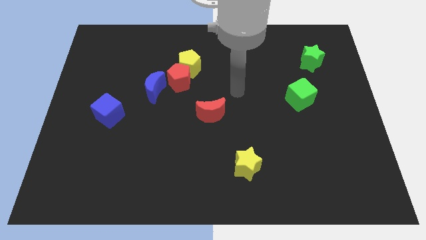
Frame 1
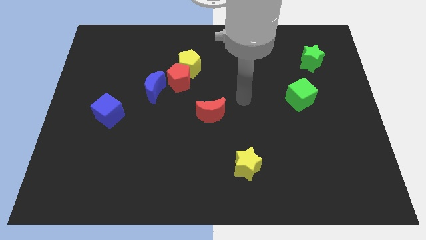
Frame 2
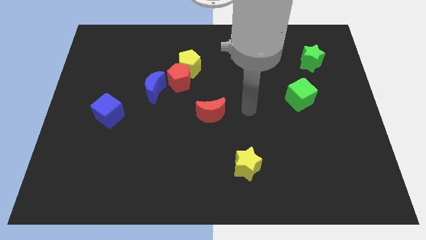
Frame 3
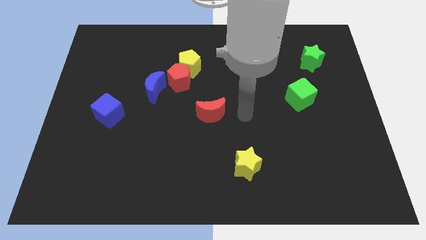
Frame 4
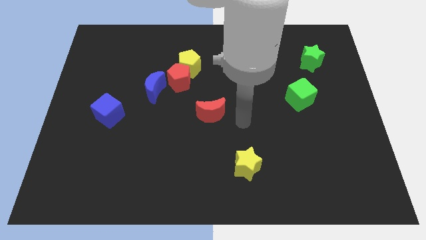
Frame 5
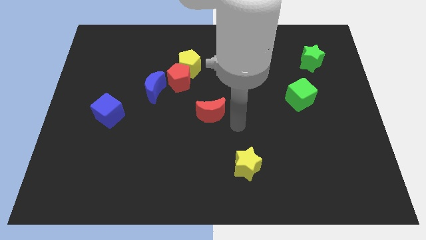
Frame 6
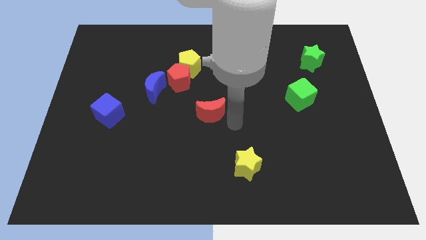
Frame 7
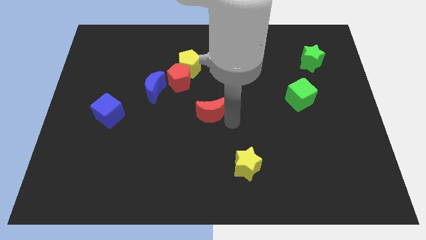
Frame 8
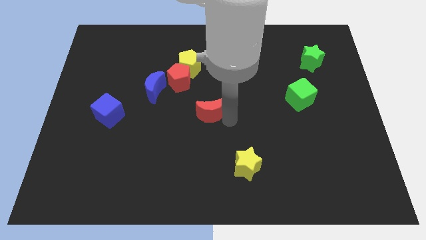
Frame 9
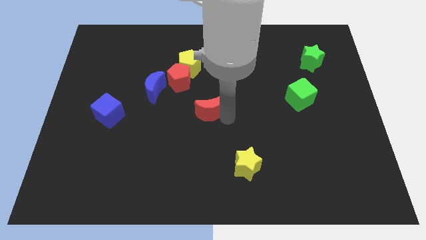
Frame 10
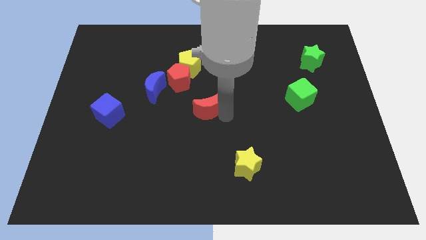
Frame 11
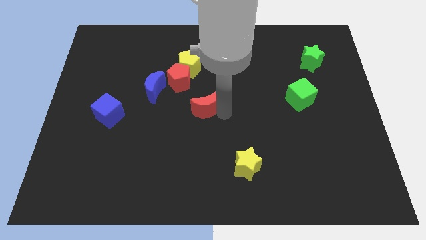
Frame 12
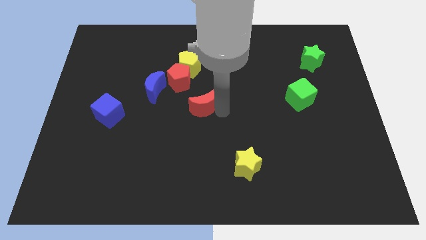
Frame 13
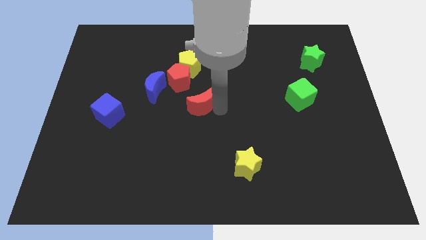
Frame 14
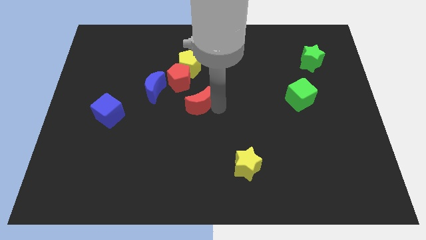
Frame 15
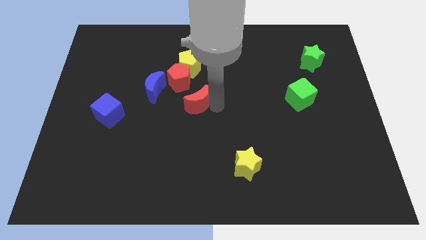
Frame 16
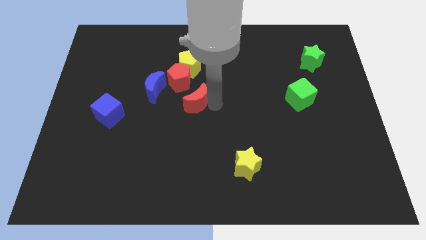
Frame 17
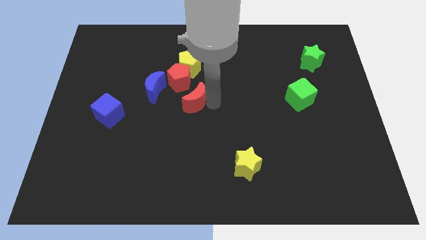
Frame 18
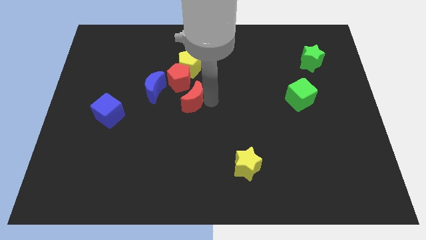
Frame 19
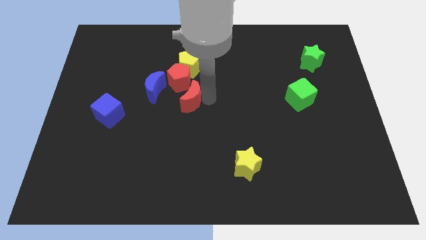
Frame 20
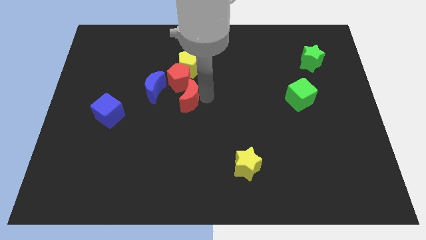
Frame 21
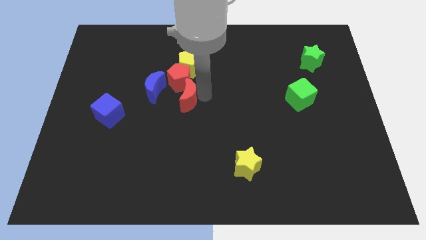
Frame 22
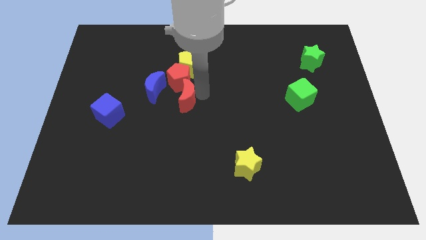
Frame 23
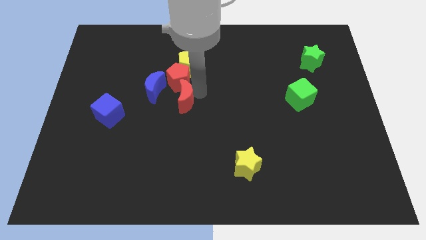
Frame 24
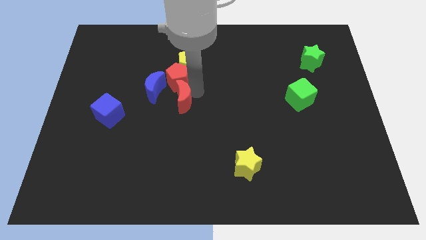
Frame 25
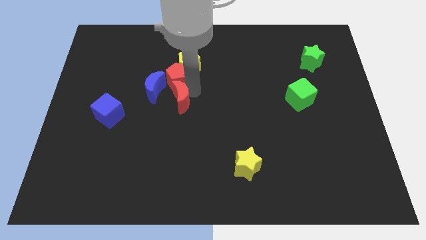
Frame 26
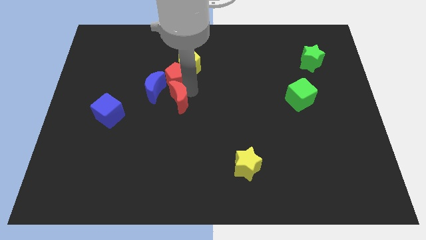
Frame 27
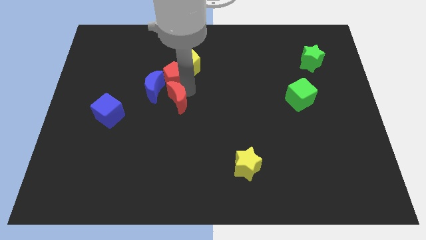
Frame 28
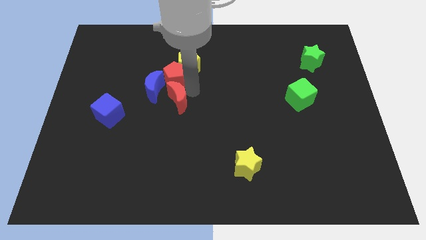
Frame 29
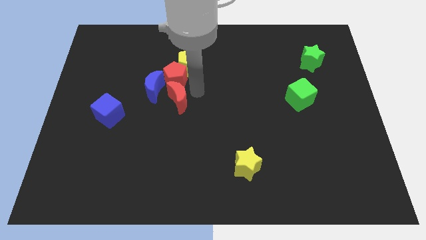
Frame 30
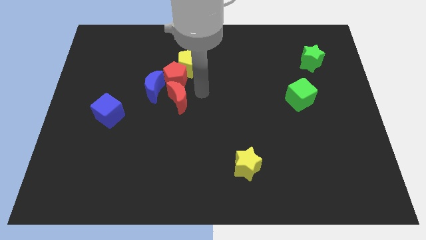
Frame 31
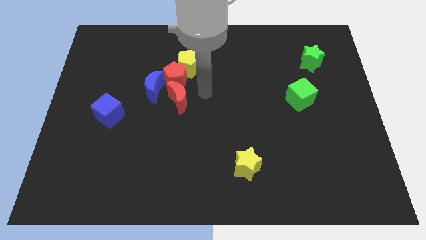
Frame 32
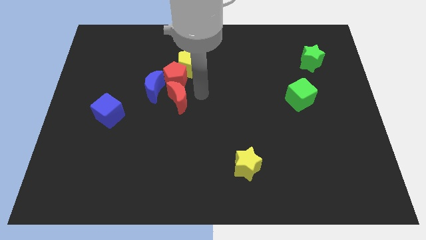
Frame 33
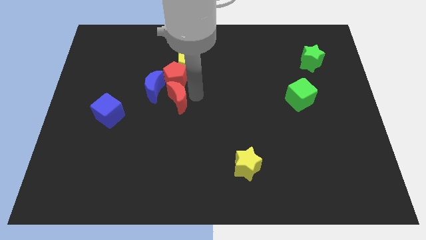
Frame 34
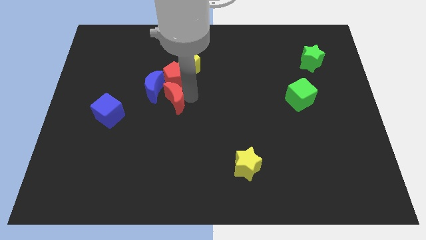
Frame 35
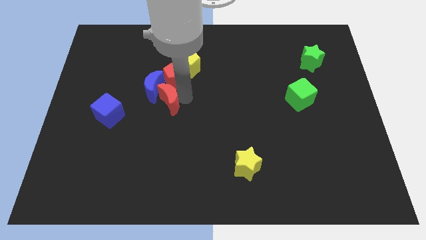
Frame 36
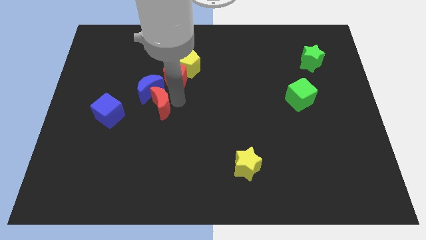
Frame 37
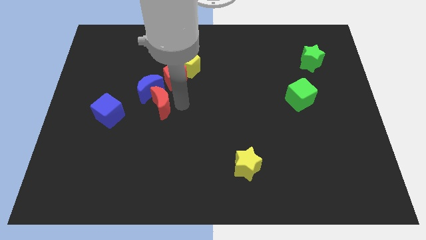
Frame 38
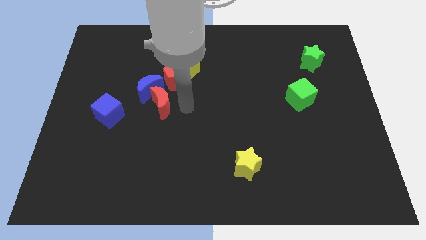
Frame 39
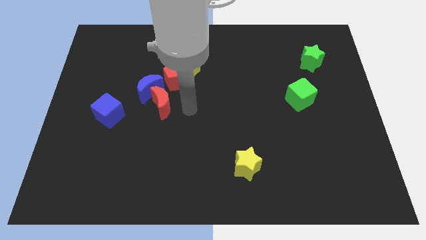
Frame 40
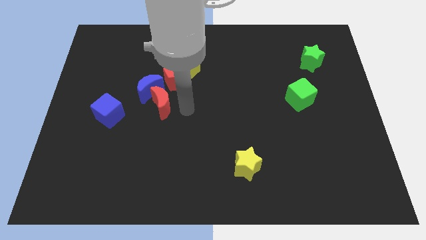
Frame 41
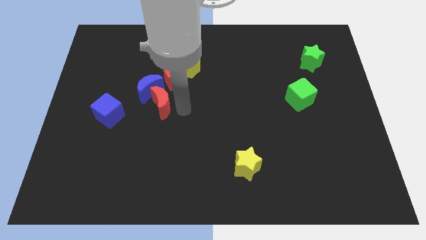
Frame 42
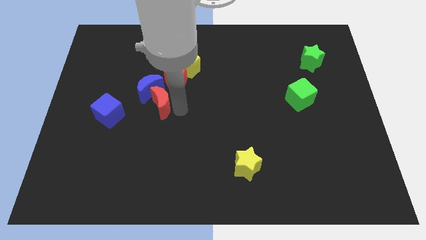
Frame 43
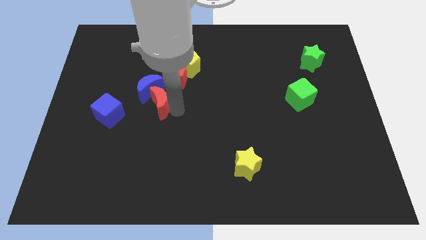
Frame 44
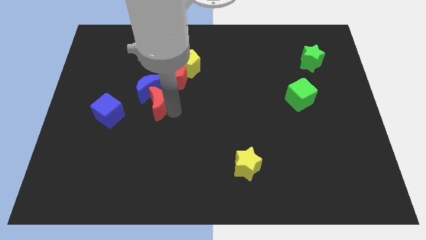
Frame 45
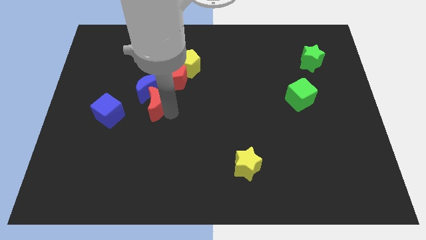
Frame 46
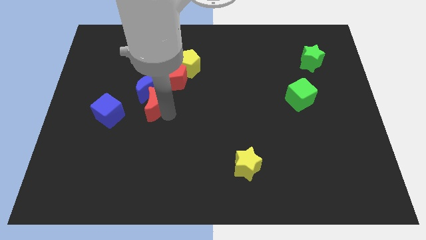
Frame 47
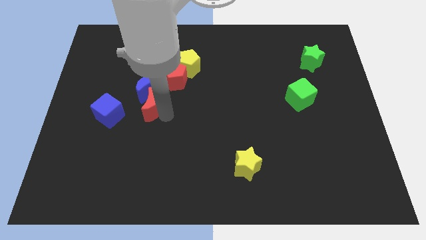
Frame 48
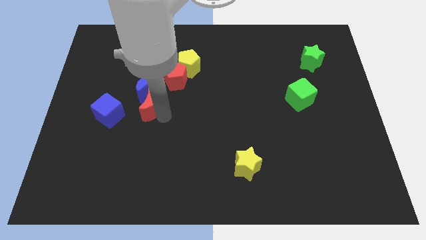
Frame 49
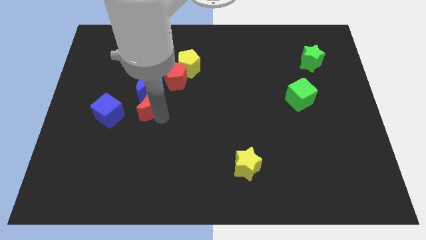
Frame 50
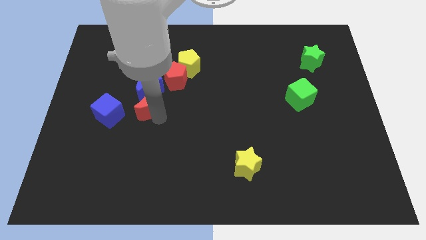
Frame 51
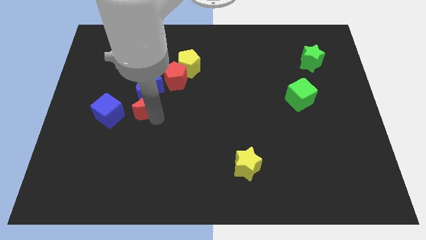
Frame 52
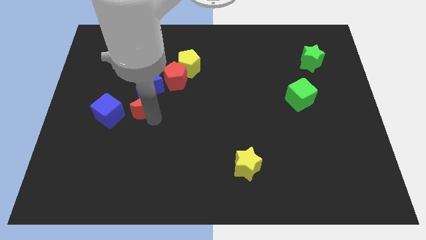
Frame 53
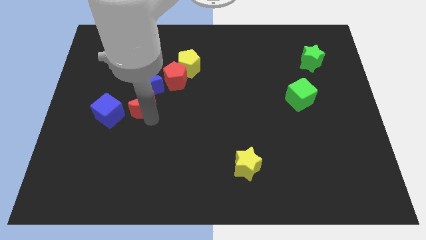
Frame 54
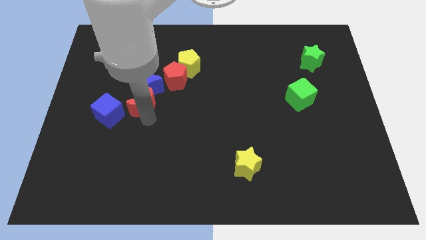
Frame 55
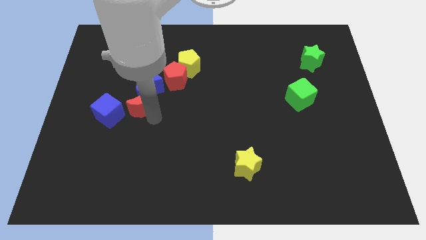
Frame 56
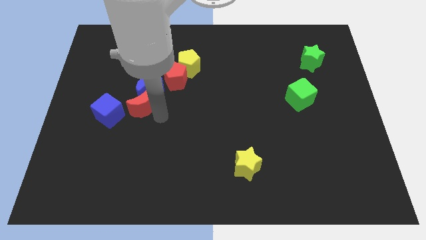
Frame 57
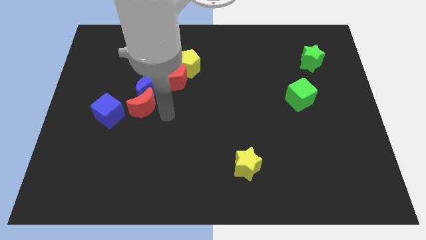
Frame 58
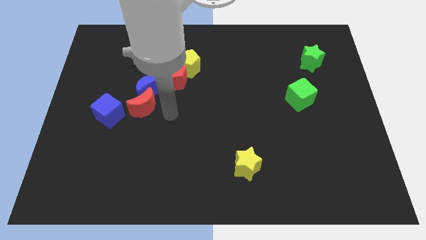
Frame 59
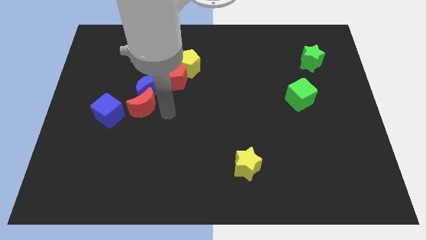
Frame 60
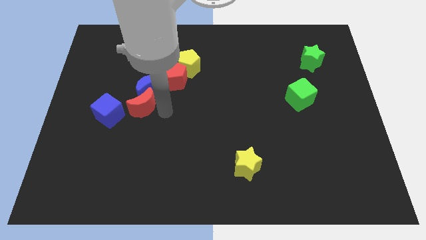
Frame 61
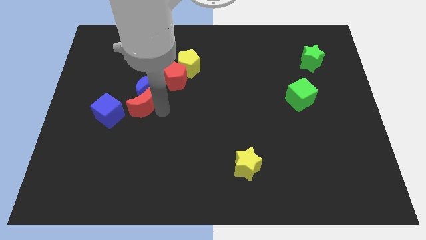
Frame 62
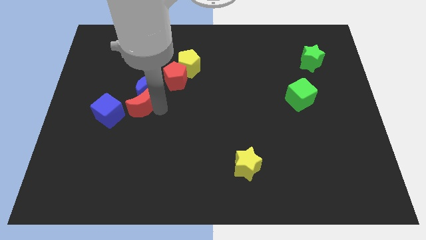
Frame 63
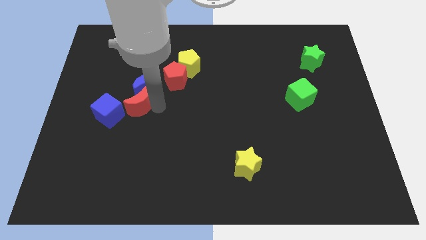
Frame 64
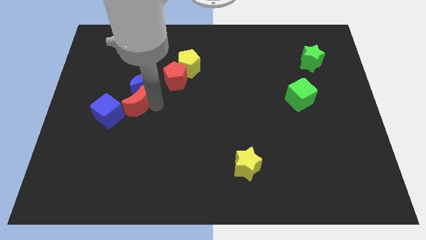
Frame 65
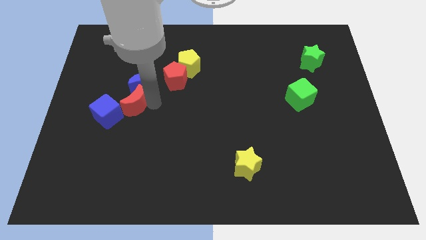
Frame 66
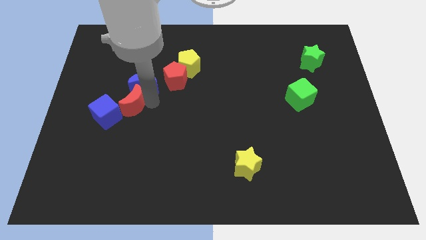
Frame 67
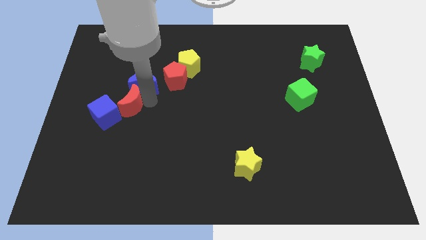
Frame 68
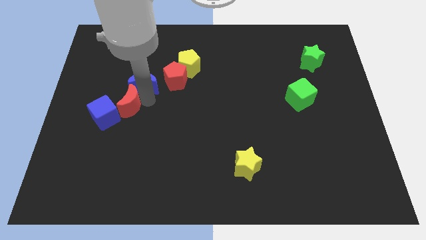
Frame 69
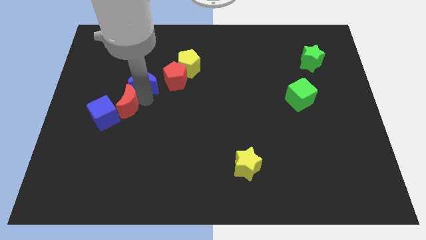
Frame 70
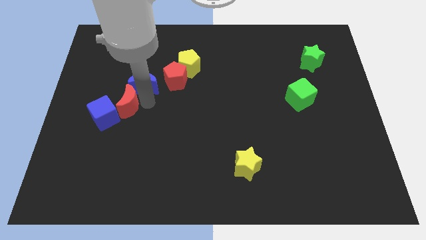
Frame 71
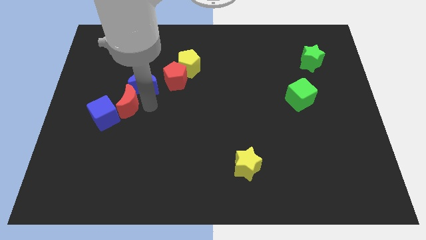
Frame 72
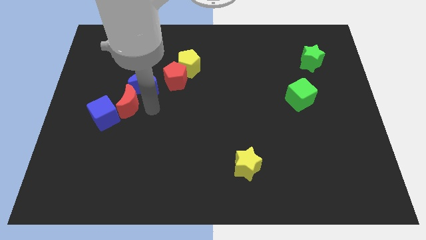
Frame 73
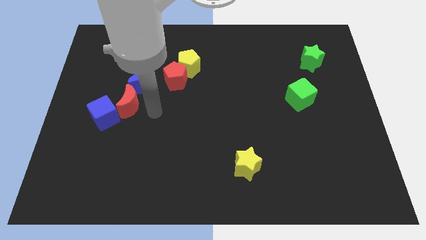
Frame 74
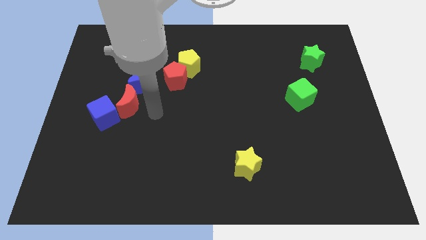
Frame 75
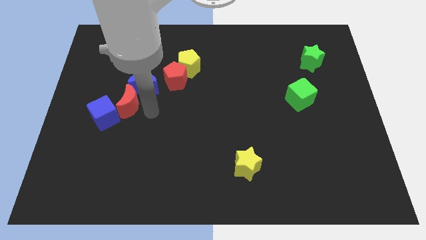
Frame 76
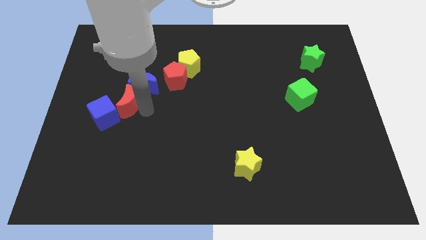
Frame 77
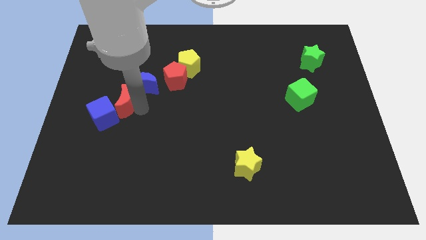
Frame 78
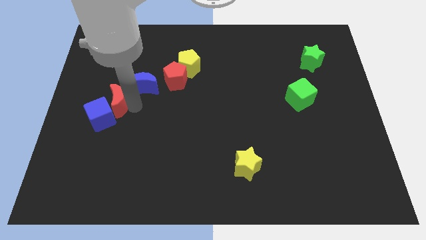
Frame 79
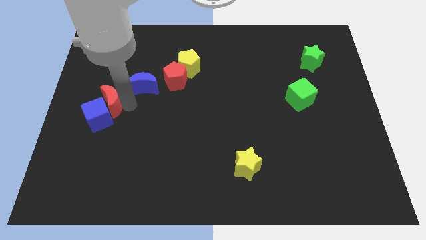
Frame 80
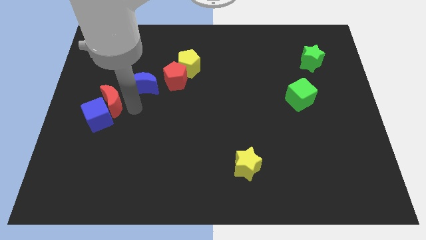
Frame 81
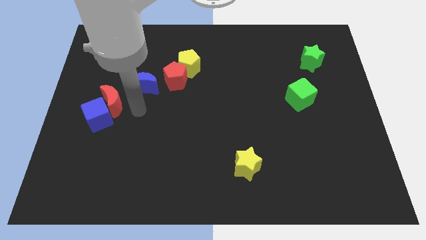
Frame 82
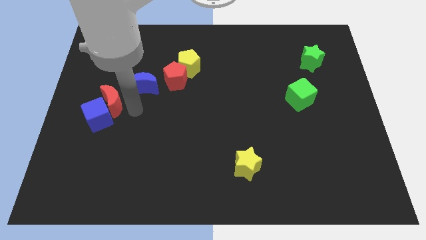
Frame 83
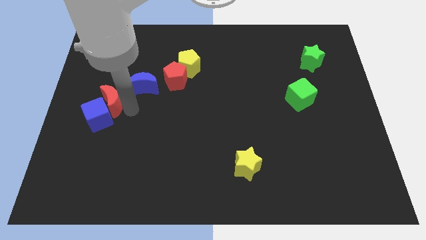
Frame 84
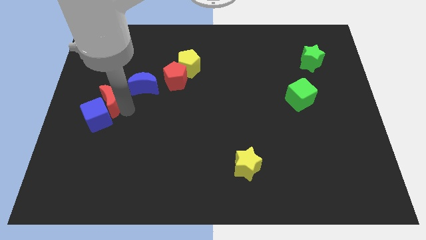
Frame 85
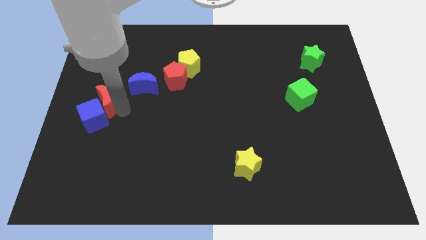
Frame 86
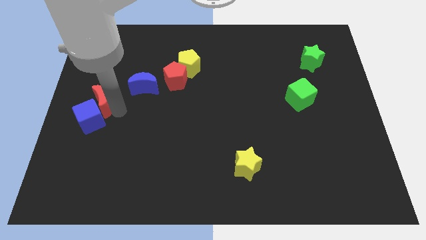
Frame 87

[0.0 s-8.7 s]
slide the red moon to the left side of the board
